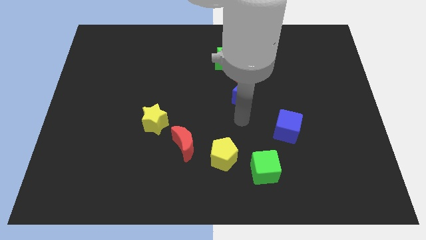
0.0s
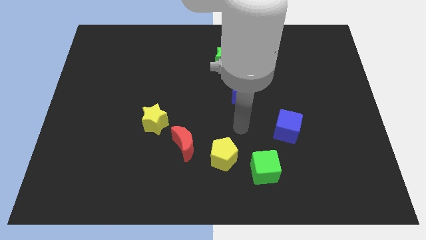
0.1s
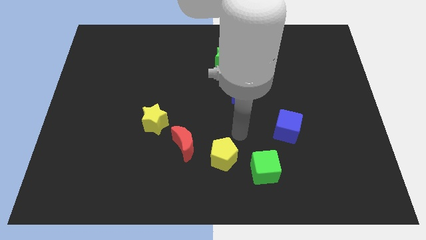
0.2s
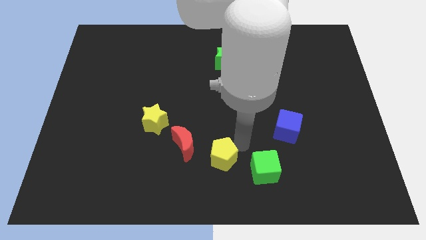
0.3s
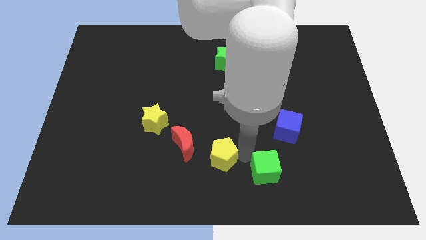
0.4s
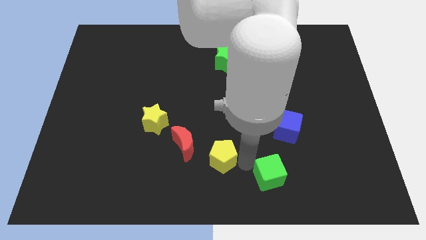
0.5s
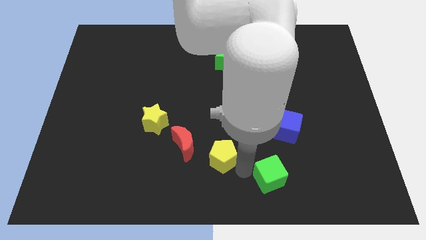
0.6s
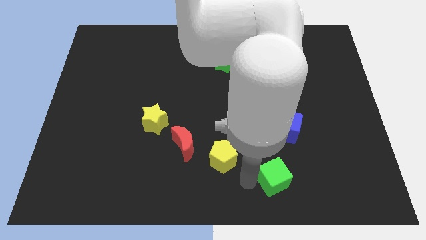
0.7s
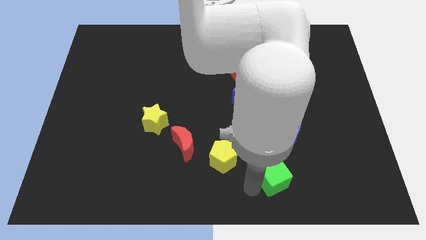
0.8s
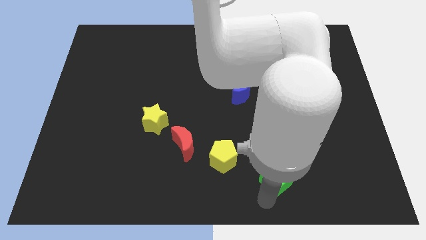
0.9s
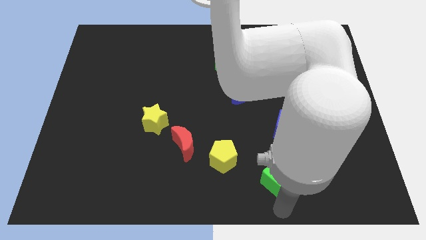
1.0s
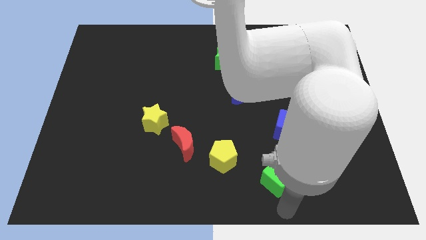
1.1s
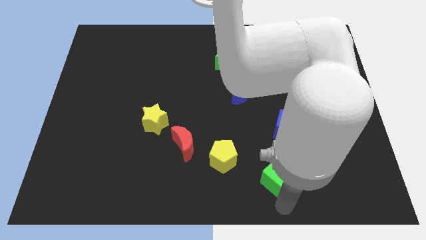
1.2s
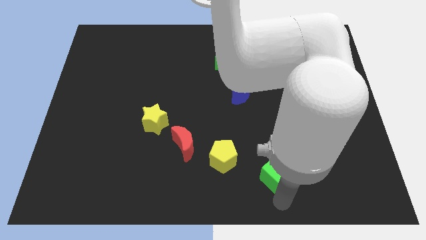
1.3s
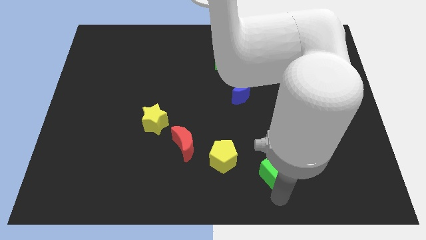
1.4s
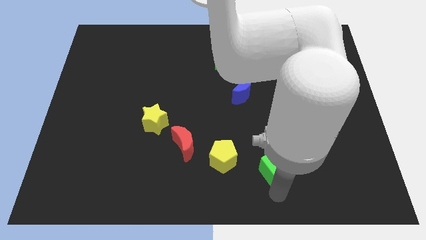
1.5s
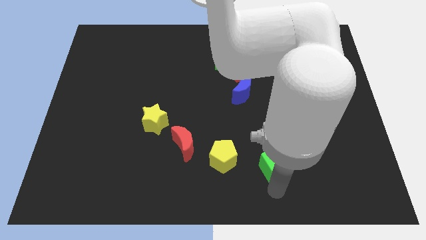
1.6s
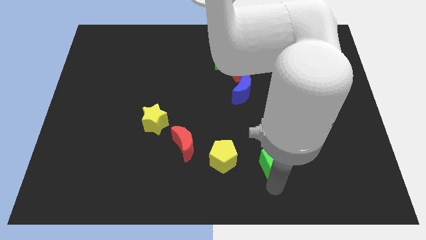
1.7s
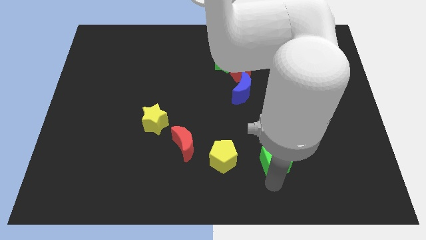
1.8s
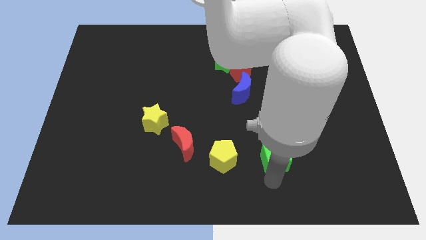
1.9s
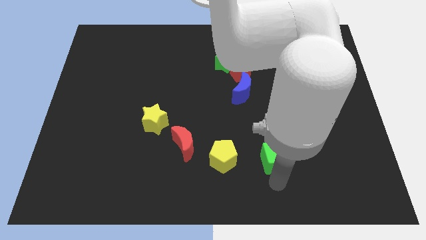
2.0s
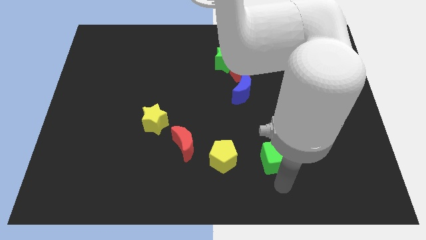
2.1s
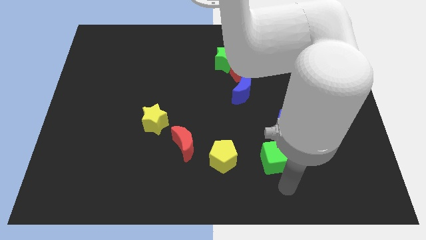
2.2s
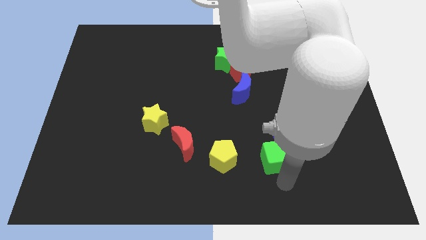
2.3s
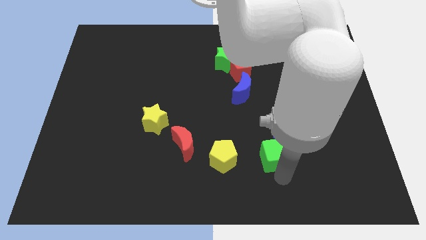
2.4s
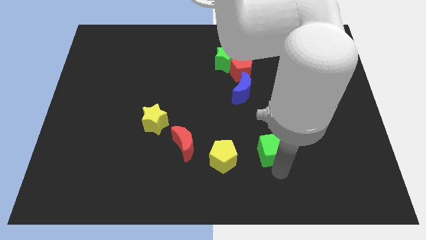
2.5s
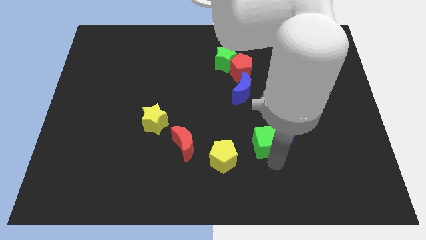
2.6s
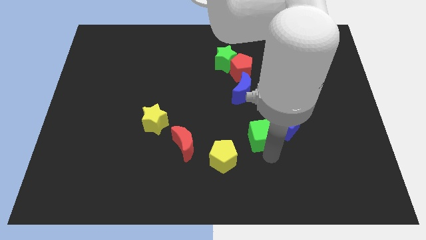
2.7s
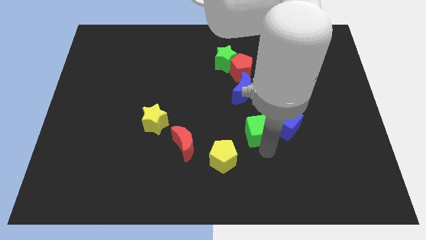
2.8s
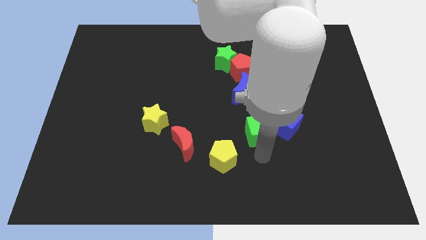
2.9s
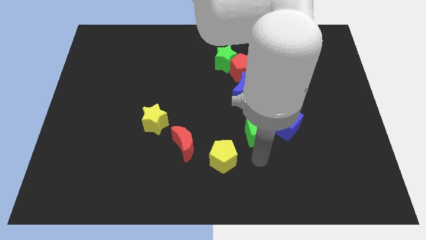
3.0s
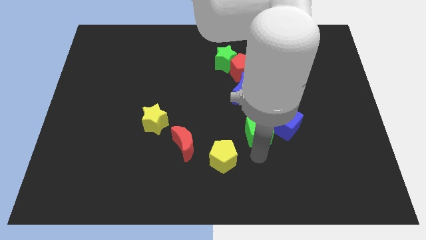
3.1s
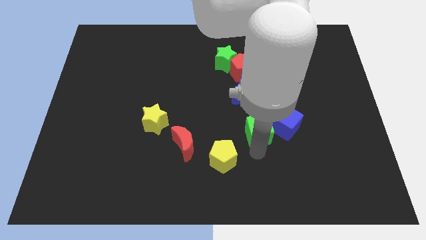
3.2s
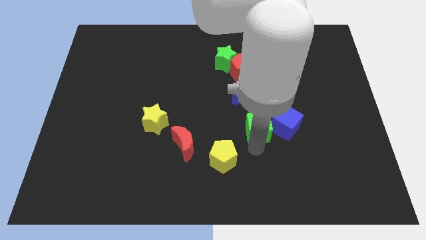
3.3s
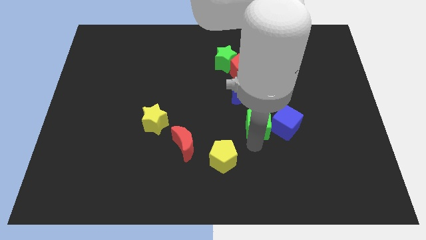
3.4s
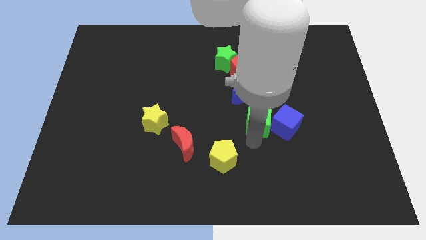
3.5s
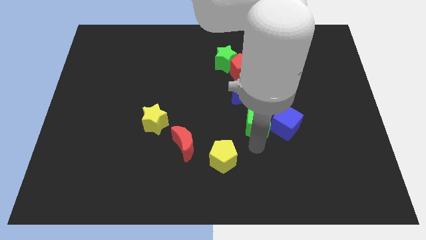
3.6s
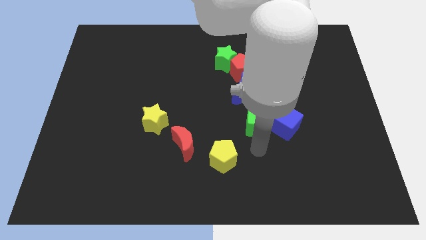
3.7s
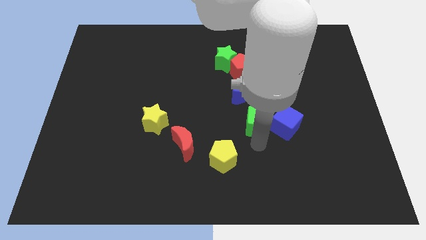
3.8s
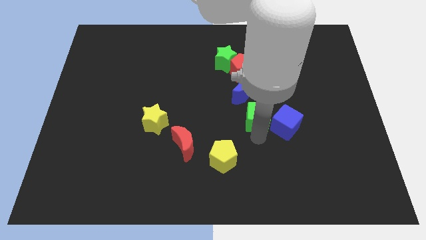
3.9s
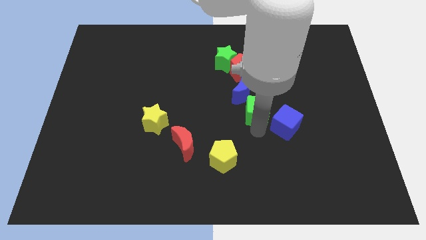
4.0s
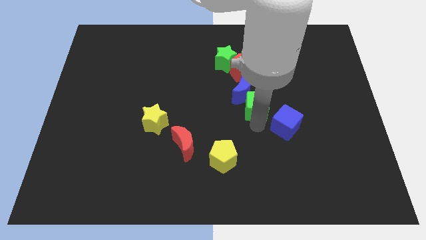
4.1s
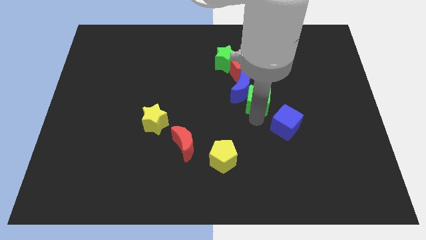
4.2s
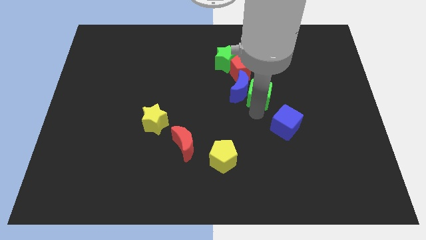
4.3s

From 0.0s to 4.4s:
push the green cube upwards

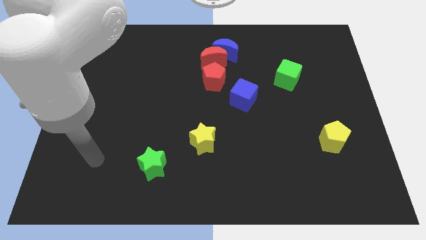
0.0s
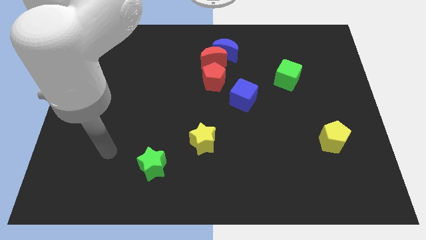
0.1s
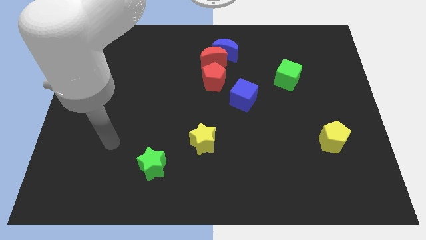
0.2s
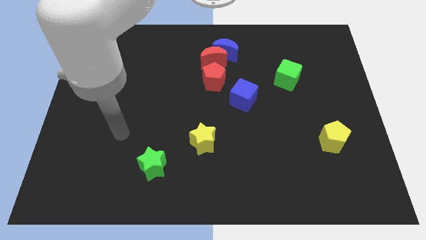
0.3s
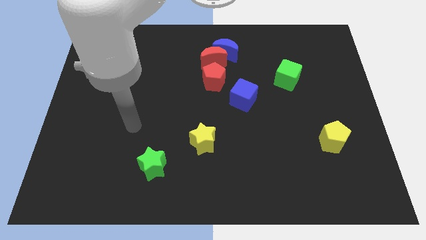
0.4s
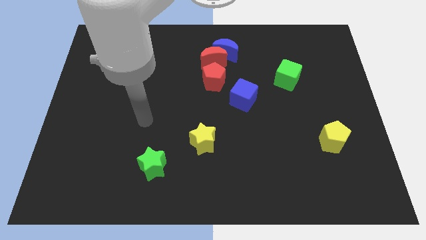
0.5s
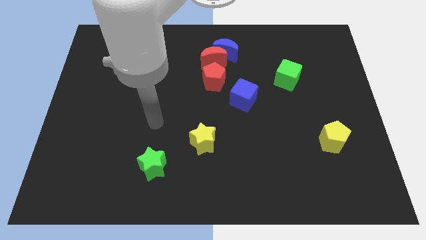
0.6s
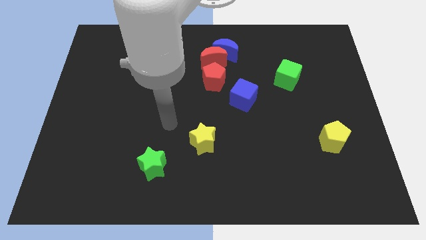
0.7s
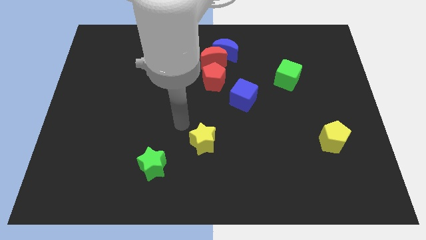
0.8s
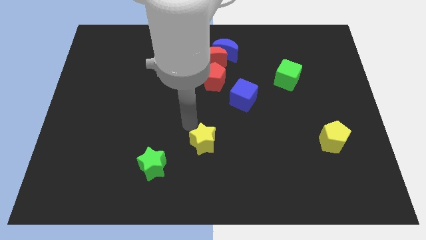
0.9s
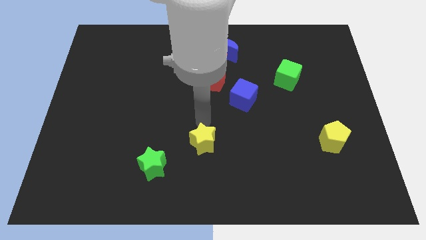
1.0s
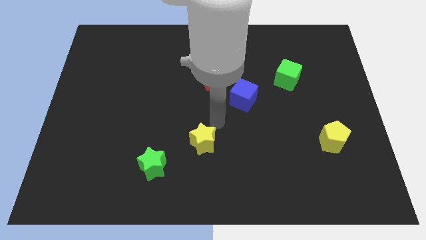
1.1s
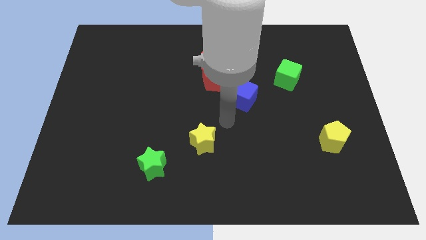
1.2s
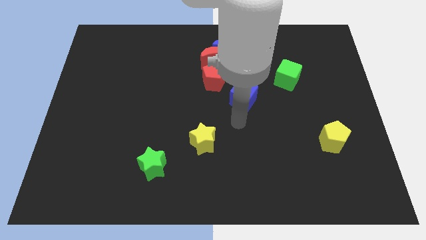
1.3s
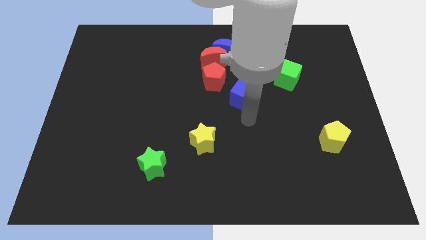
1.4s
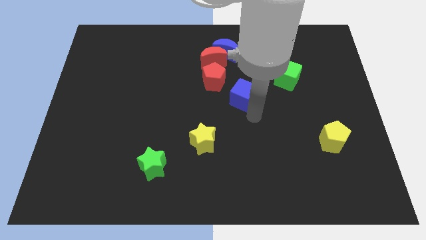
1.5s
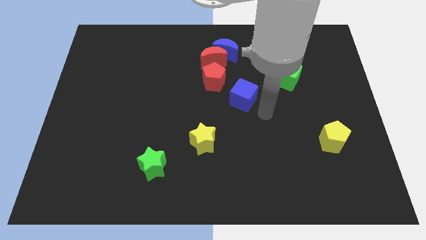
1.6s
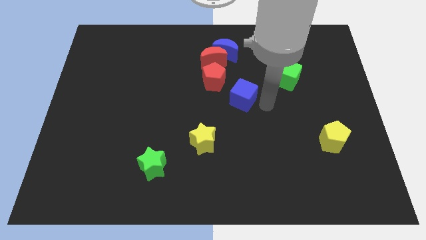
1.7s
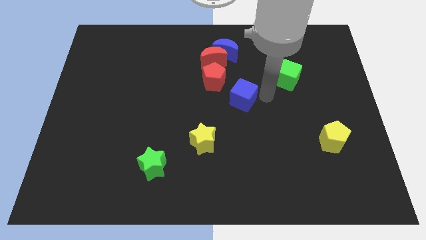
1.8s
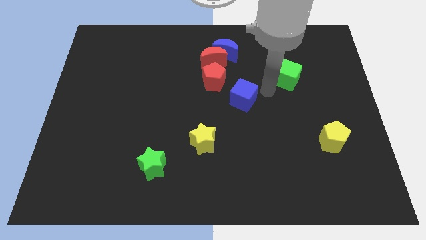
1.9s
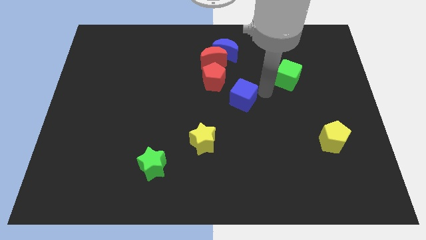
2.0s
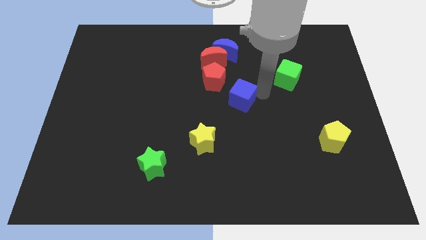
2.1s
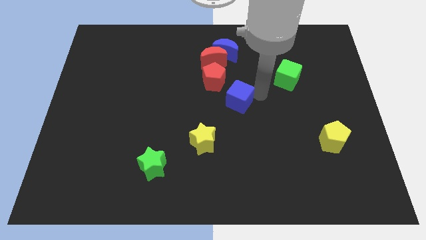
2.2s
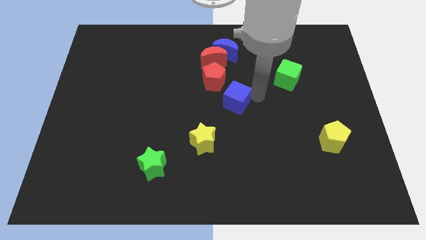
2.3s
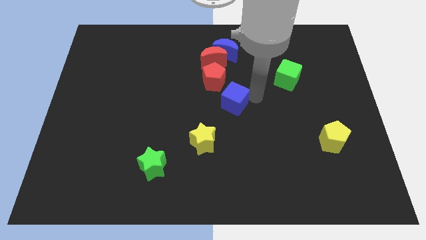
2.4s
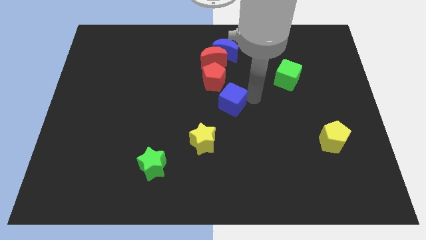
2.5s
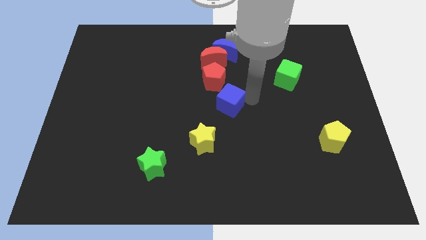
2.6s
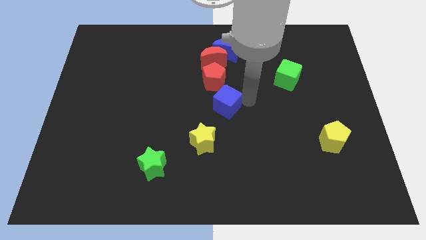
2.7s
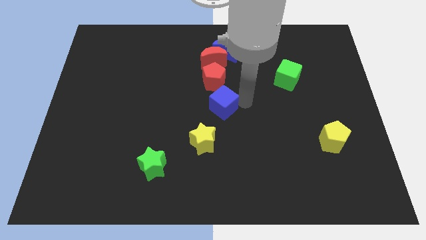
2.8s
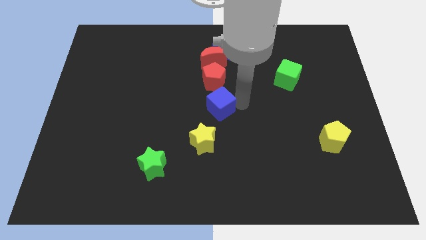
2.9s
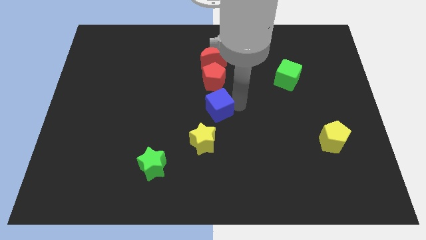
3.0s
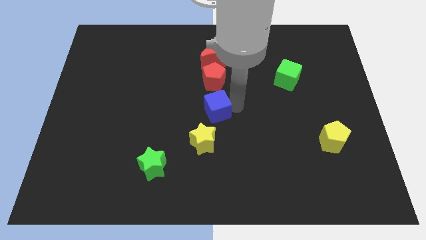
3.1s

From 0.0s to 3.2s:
move the blue cube diagonally downwards and left a little bit

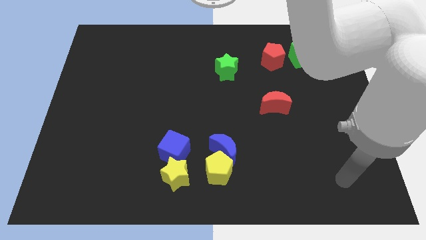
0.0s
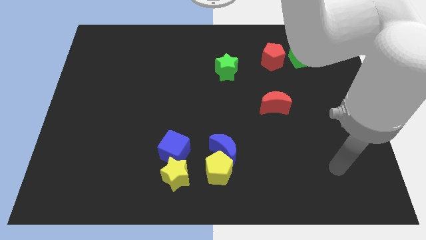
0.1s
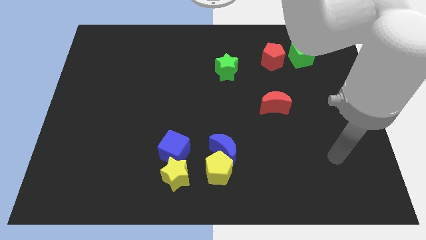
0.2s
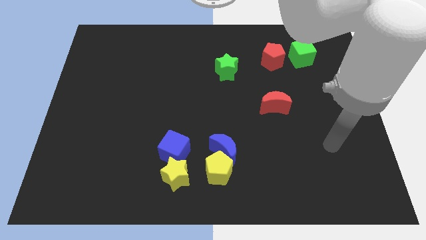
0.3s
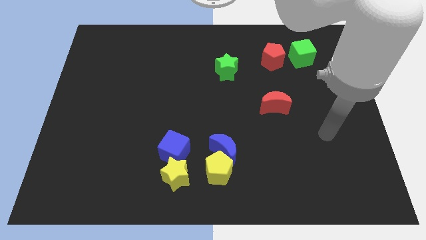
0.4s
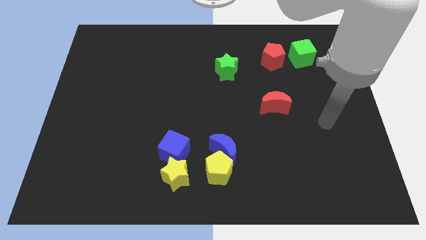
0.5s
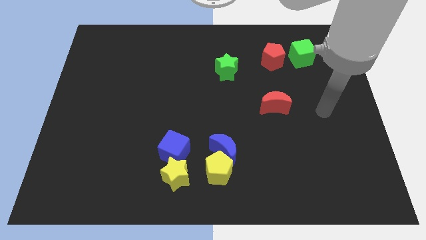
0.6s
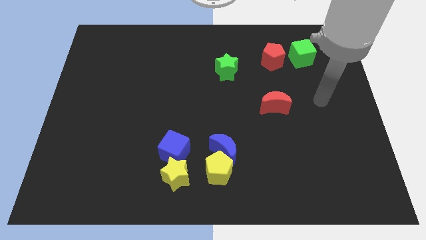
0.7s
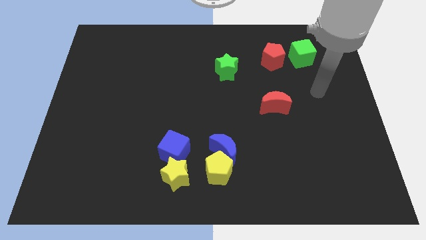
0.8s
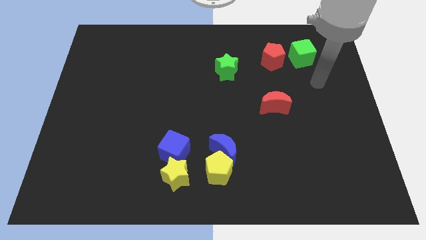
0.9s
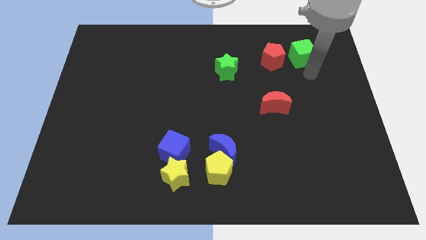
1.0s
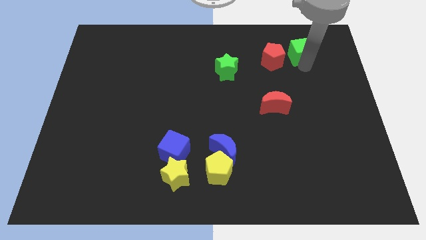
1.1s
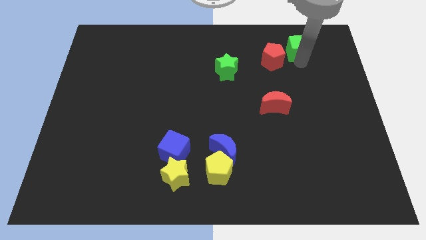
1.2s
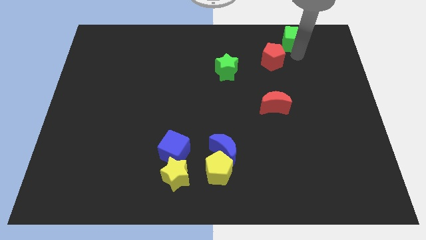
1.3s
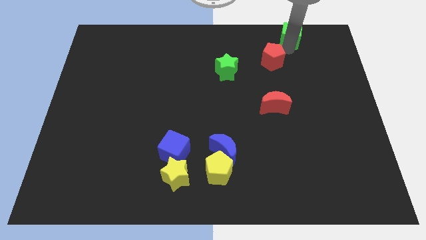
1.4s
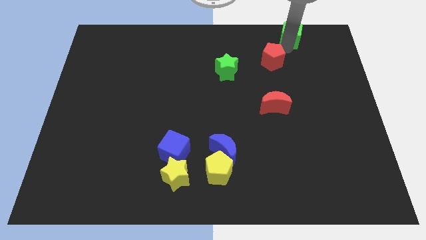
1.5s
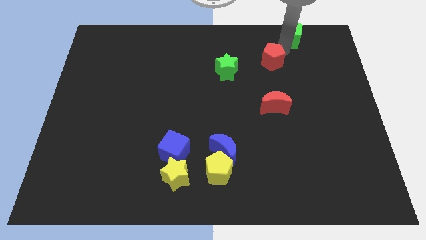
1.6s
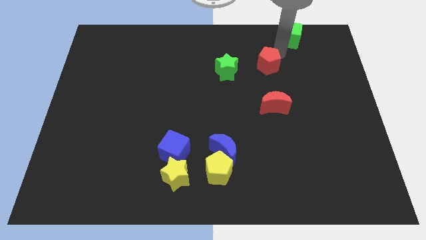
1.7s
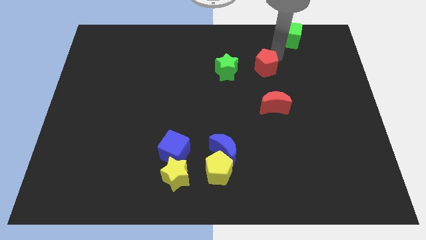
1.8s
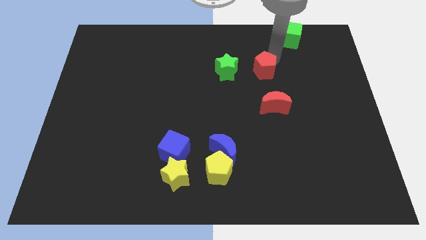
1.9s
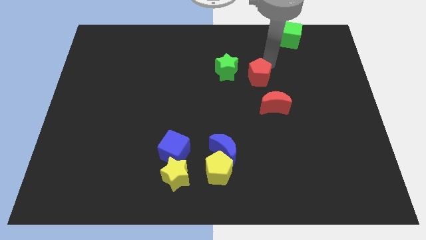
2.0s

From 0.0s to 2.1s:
slightly push the red pentagon downwards and left
